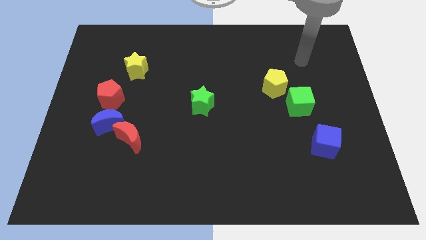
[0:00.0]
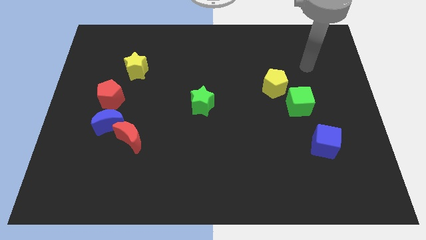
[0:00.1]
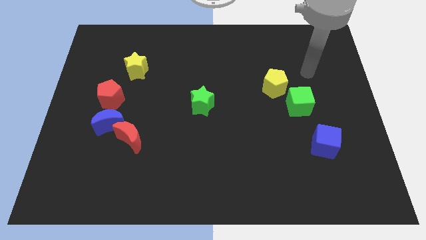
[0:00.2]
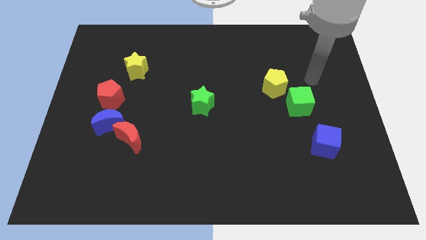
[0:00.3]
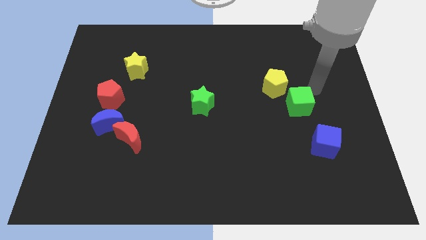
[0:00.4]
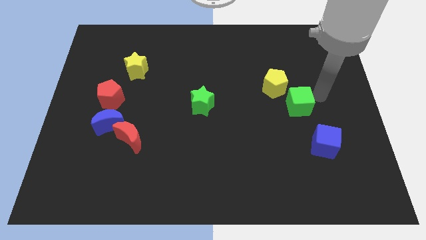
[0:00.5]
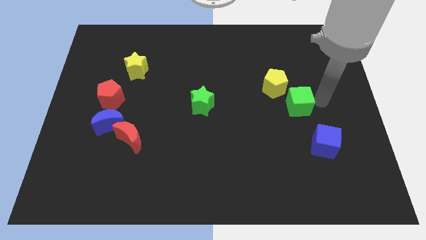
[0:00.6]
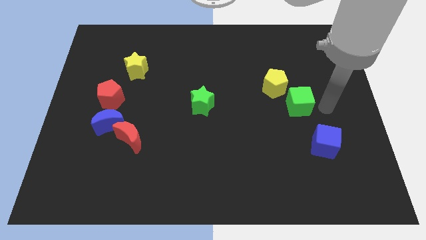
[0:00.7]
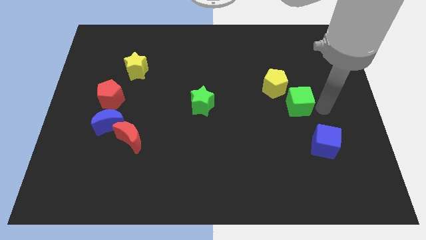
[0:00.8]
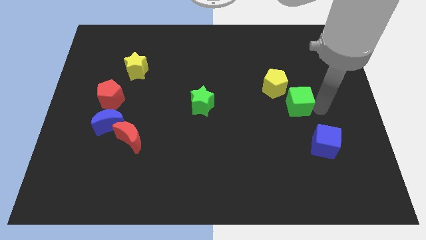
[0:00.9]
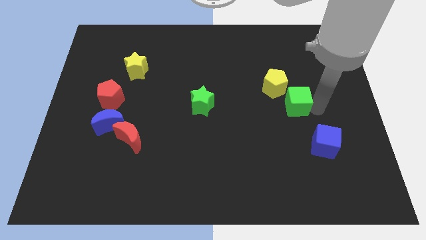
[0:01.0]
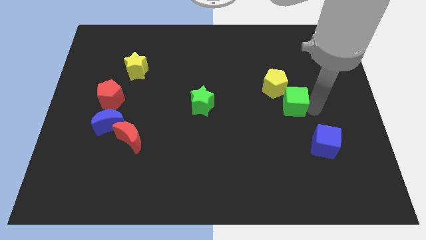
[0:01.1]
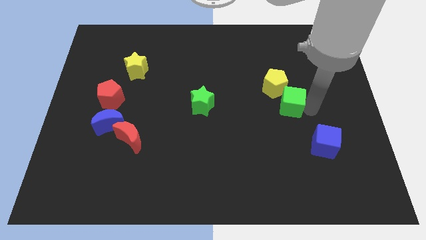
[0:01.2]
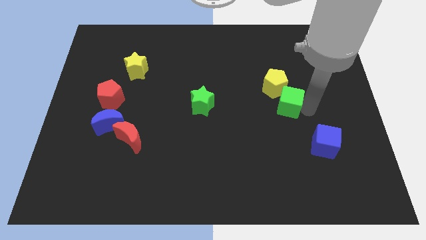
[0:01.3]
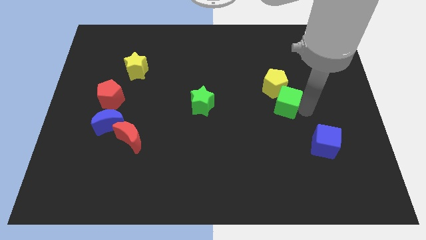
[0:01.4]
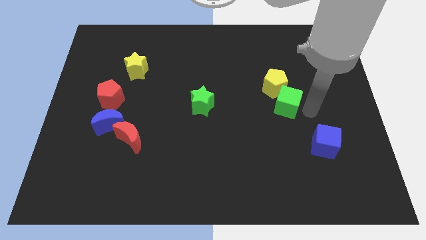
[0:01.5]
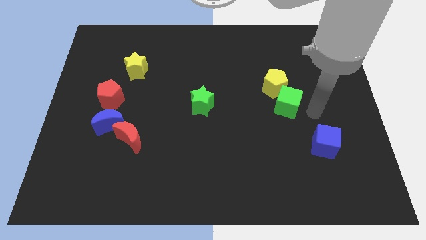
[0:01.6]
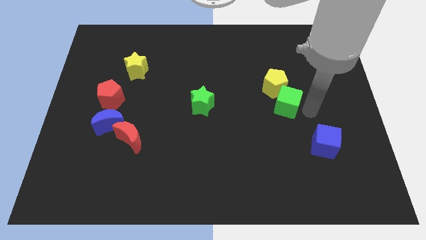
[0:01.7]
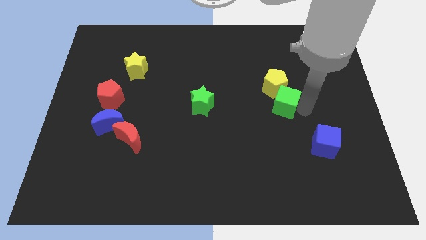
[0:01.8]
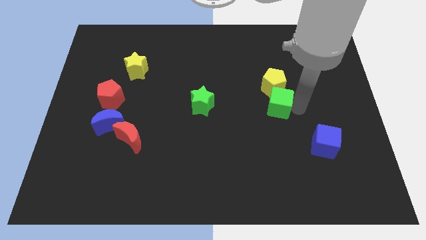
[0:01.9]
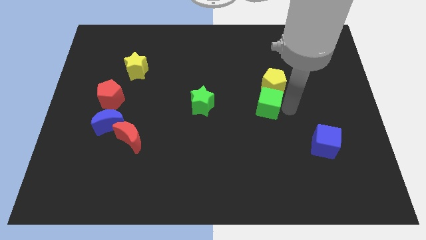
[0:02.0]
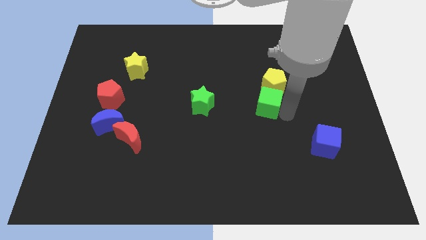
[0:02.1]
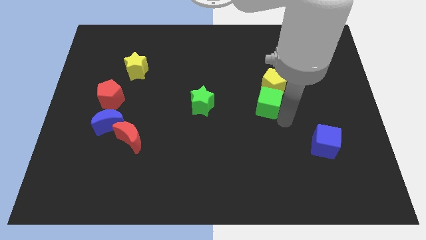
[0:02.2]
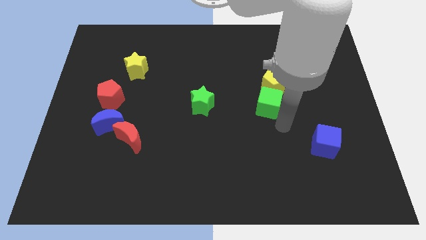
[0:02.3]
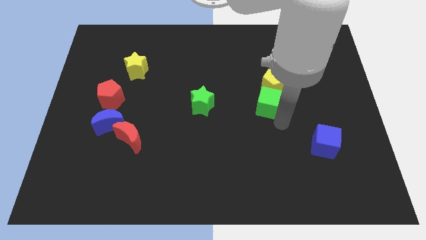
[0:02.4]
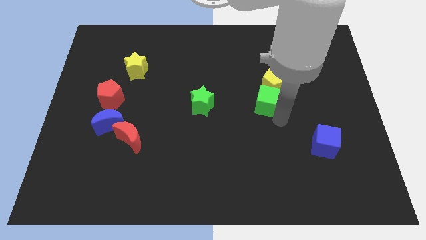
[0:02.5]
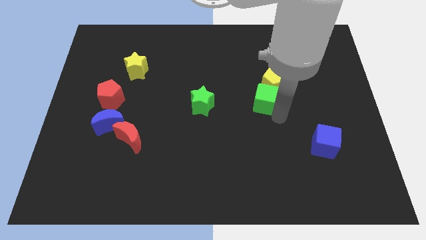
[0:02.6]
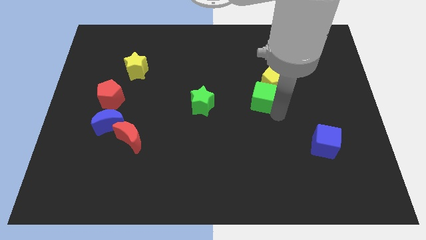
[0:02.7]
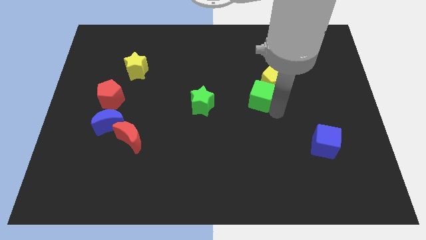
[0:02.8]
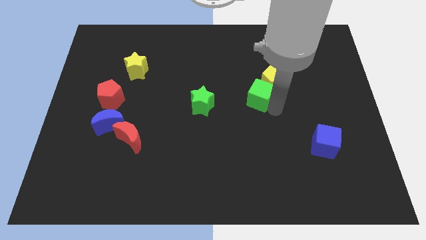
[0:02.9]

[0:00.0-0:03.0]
slide the green cube a little bit up and to the left

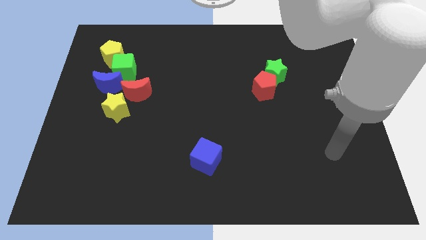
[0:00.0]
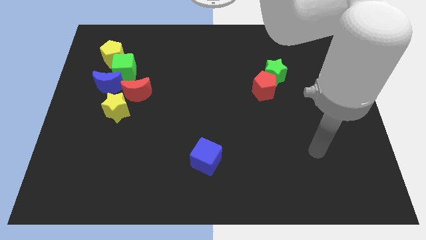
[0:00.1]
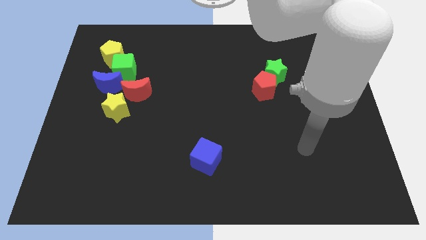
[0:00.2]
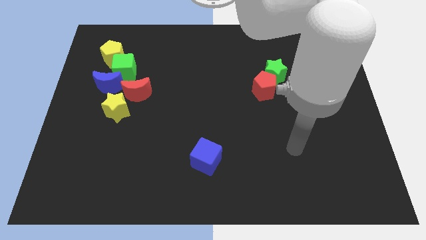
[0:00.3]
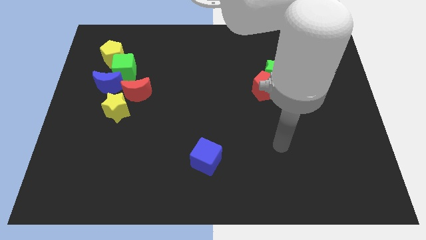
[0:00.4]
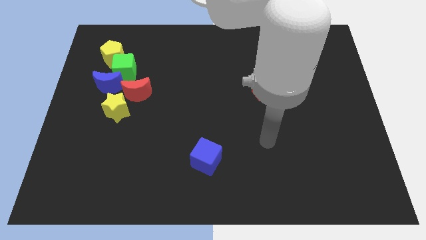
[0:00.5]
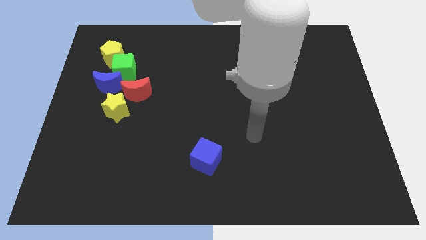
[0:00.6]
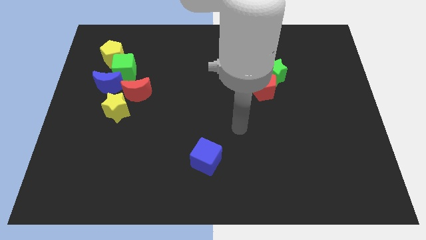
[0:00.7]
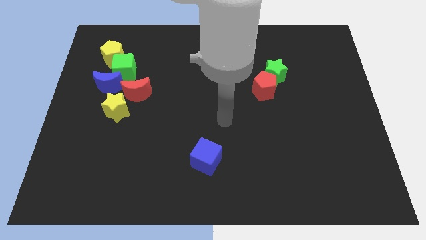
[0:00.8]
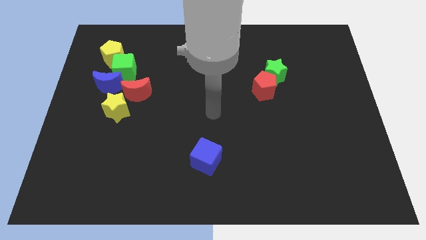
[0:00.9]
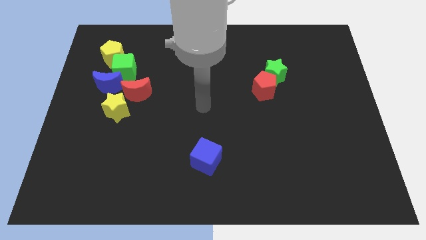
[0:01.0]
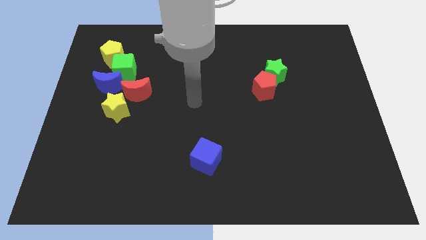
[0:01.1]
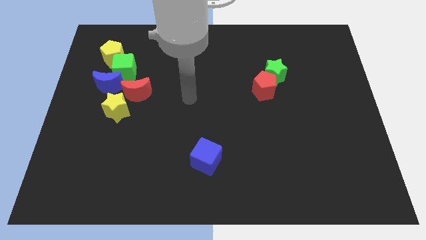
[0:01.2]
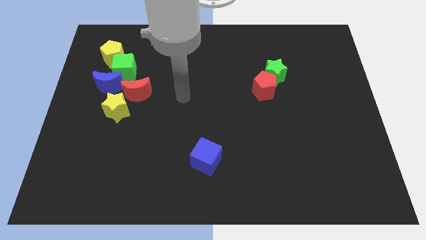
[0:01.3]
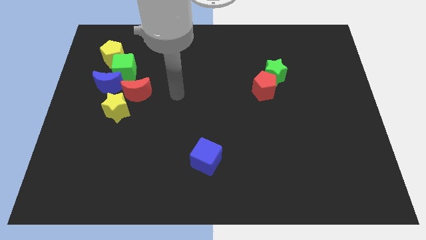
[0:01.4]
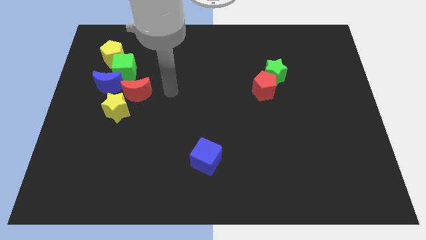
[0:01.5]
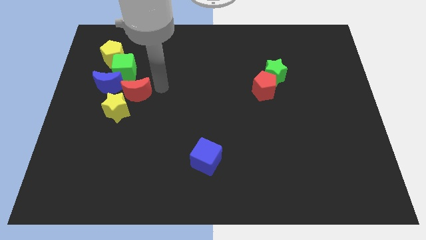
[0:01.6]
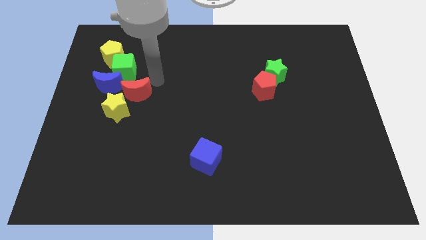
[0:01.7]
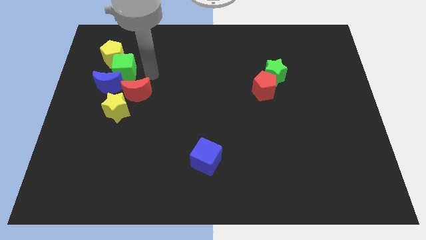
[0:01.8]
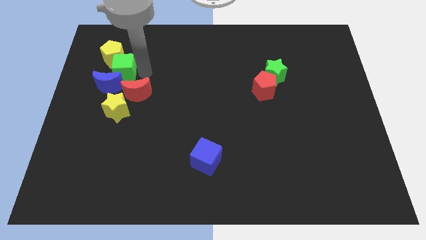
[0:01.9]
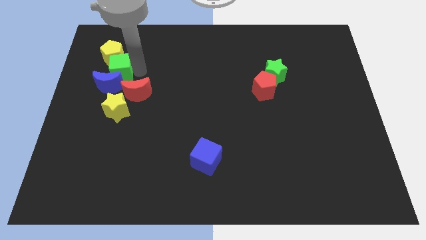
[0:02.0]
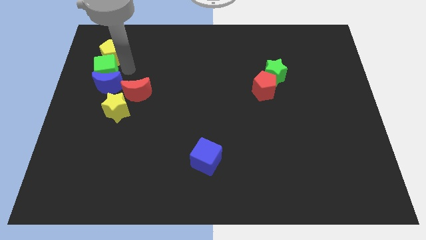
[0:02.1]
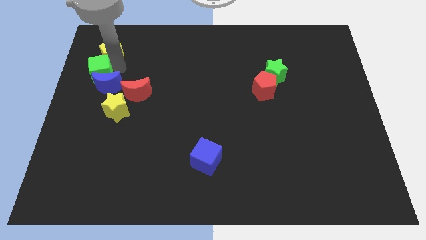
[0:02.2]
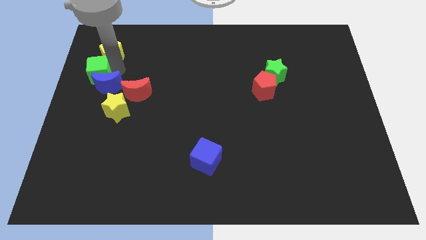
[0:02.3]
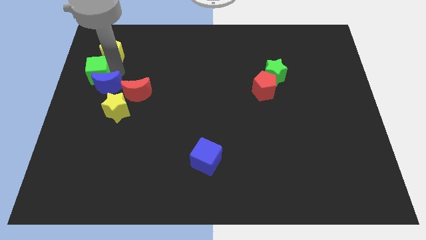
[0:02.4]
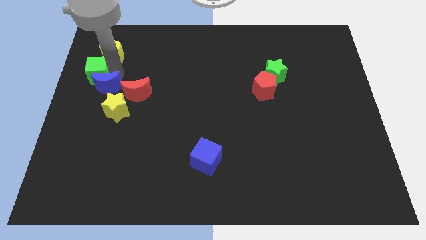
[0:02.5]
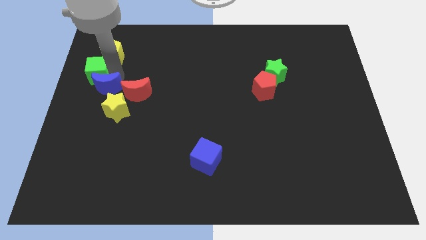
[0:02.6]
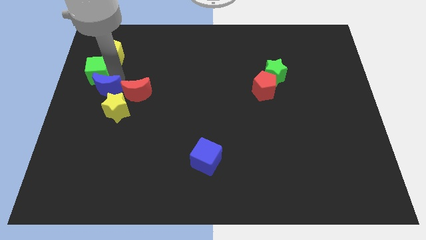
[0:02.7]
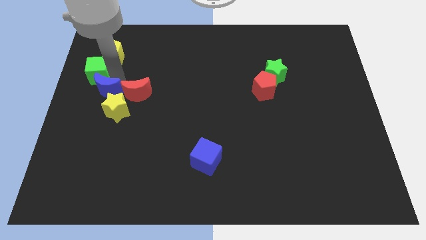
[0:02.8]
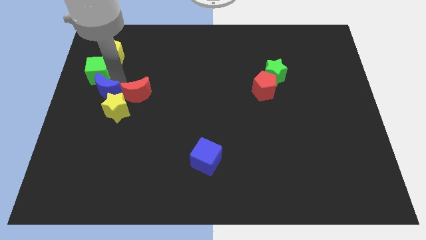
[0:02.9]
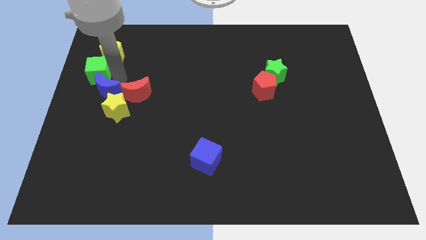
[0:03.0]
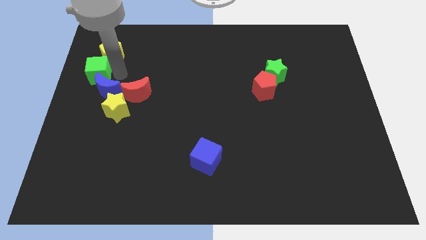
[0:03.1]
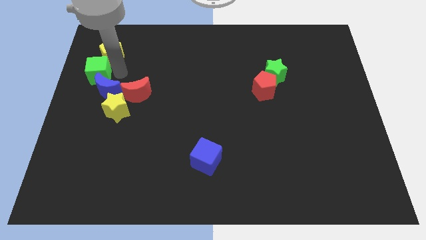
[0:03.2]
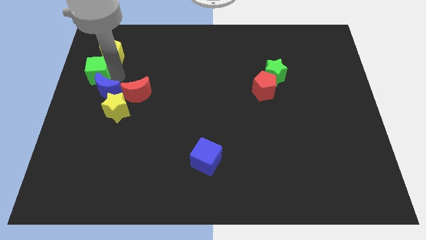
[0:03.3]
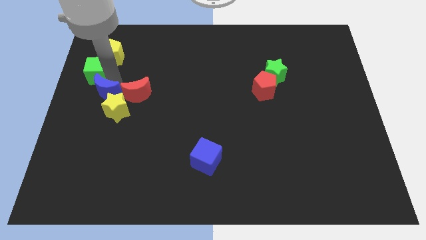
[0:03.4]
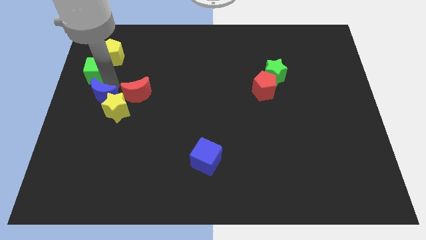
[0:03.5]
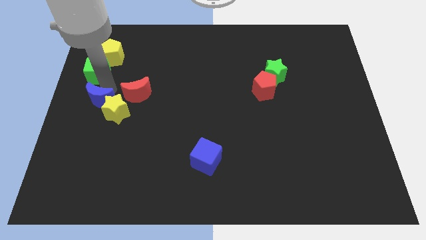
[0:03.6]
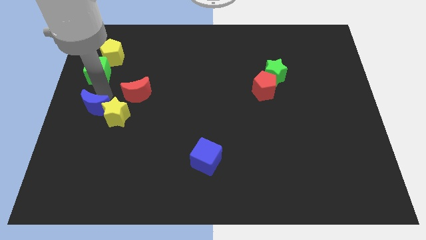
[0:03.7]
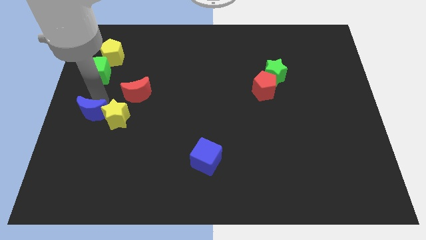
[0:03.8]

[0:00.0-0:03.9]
push the blue moon a little down

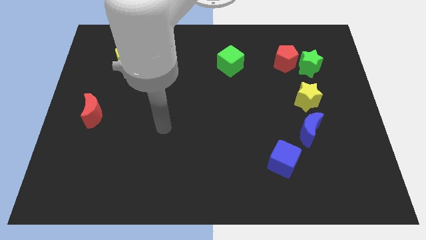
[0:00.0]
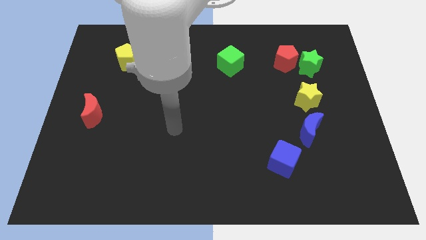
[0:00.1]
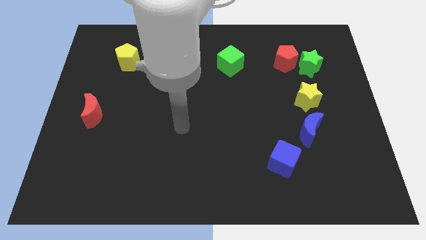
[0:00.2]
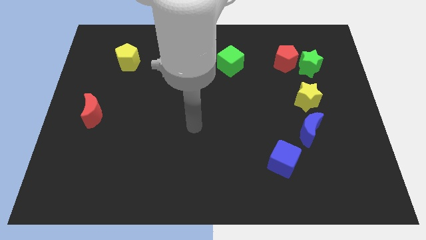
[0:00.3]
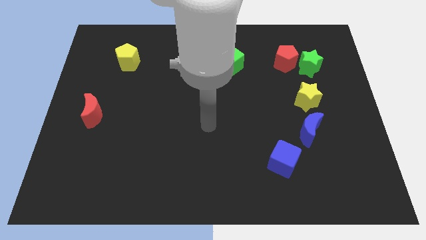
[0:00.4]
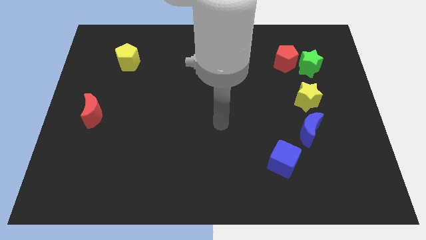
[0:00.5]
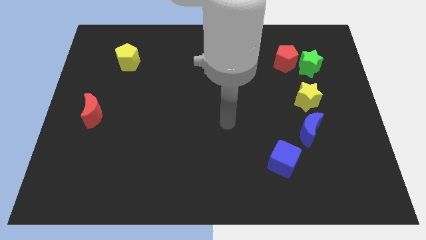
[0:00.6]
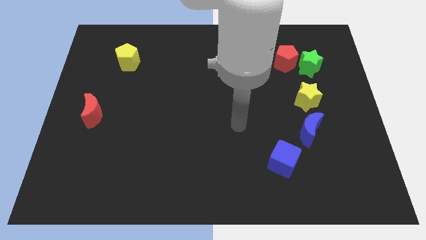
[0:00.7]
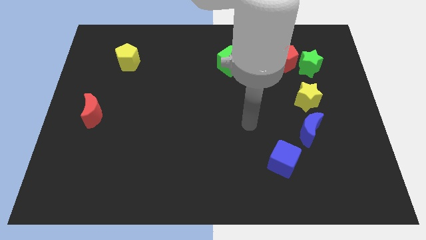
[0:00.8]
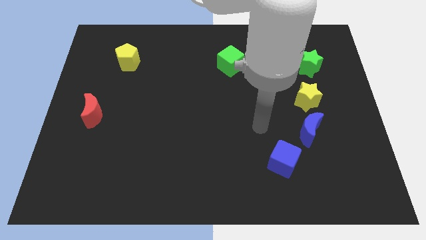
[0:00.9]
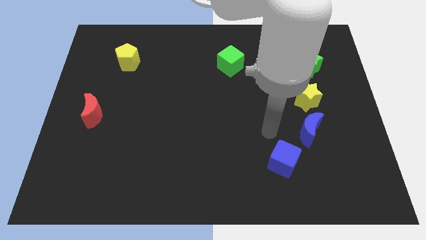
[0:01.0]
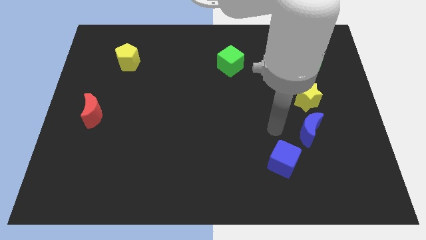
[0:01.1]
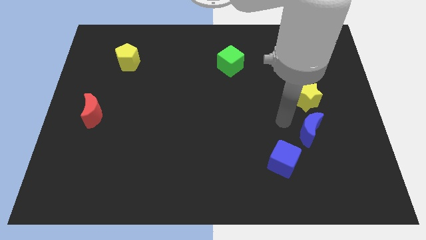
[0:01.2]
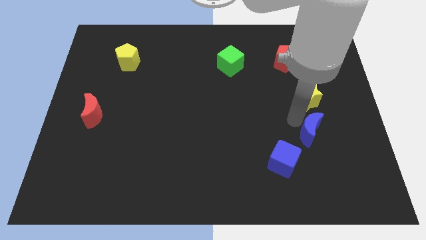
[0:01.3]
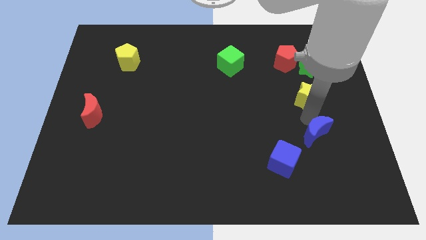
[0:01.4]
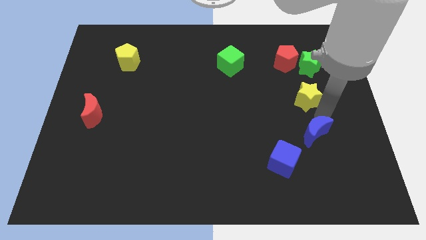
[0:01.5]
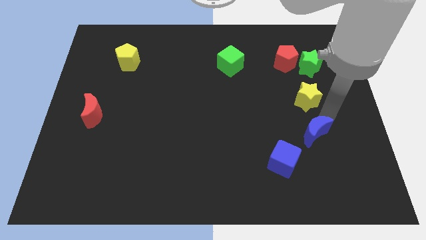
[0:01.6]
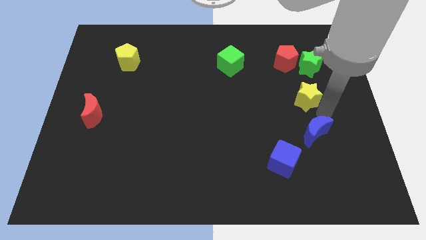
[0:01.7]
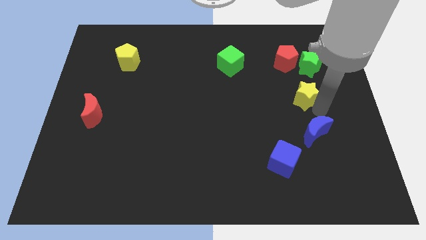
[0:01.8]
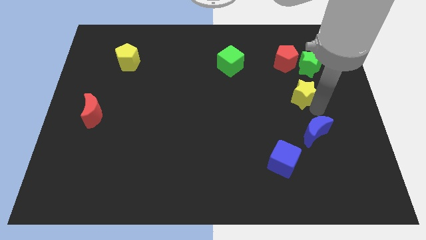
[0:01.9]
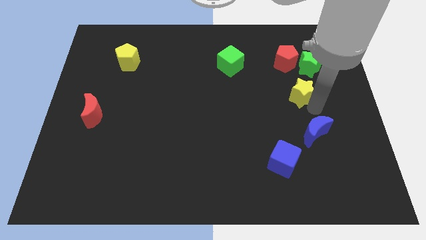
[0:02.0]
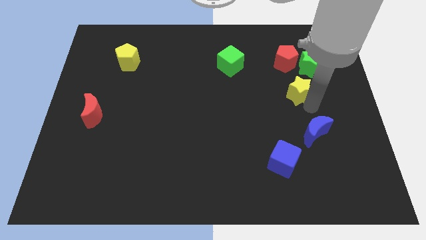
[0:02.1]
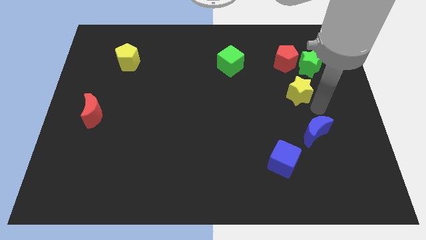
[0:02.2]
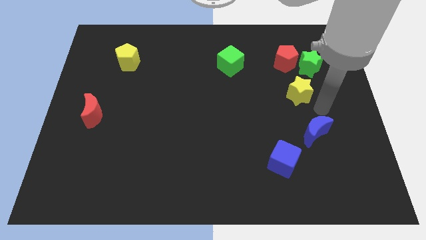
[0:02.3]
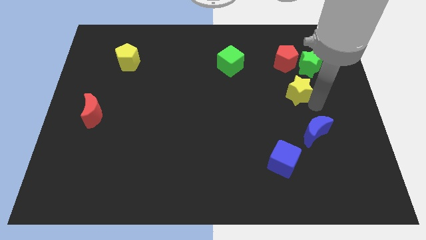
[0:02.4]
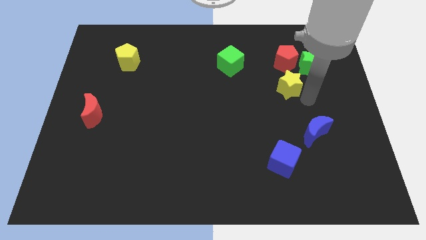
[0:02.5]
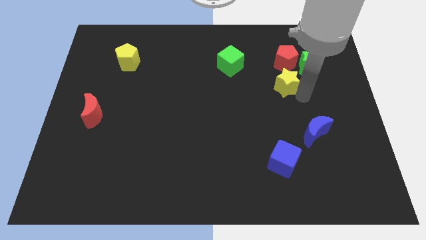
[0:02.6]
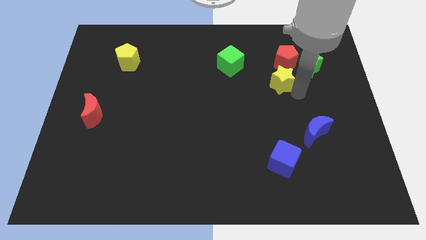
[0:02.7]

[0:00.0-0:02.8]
push the yellow star diagonally upwards and left a little
